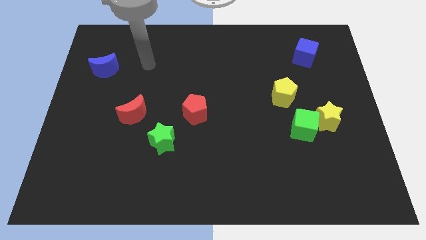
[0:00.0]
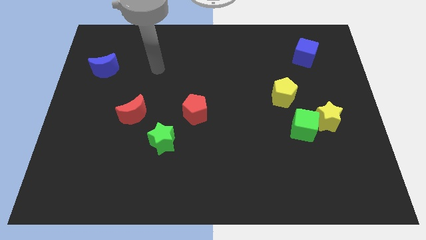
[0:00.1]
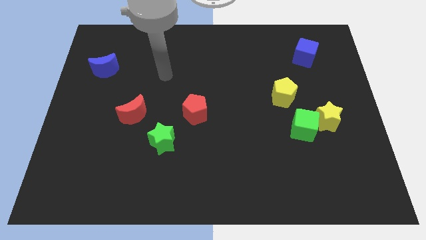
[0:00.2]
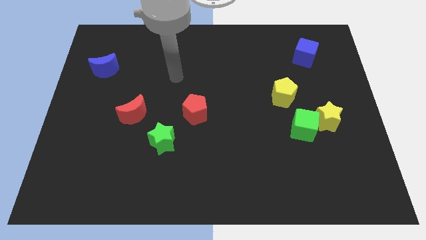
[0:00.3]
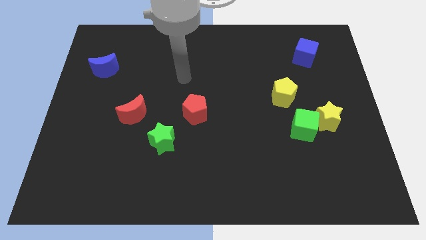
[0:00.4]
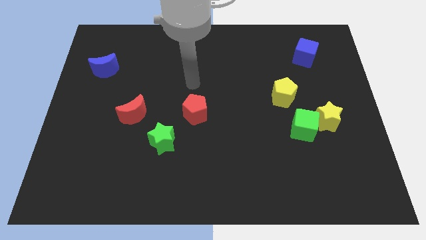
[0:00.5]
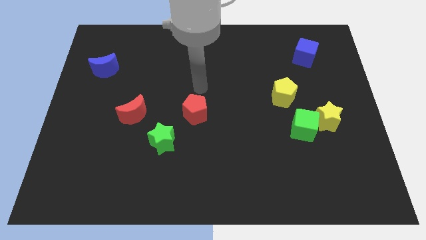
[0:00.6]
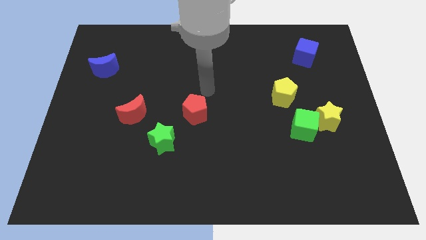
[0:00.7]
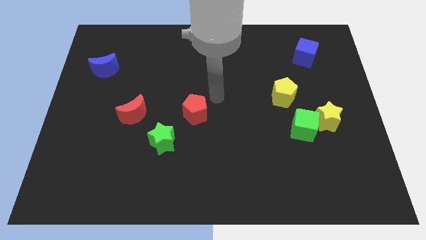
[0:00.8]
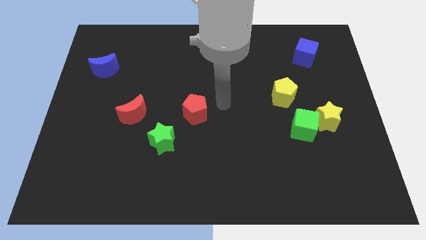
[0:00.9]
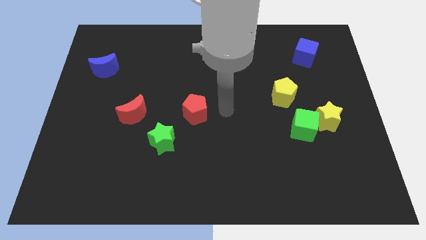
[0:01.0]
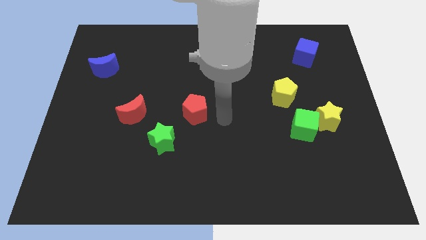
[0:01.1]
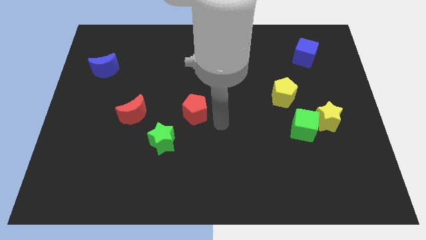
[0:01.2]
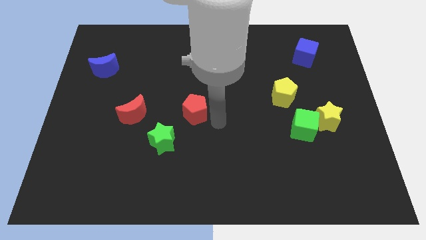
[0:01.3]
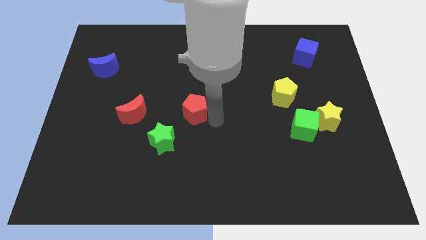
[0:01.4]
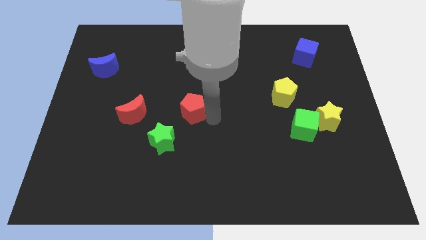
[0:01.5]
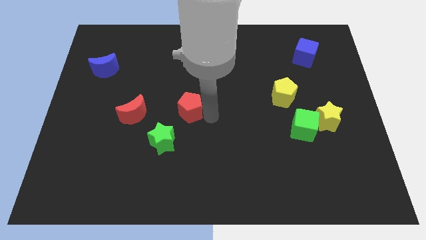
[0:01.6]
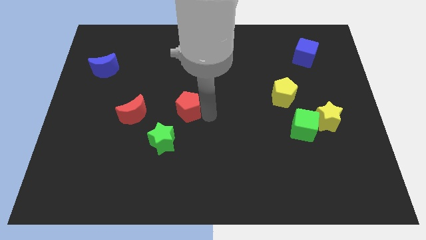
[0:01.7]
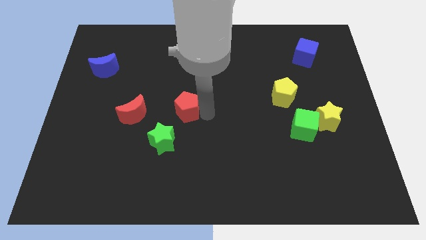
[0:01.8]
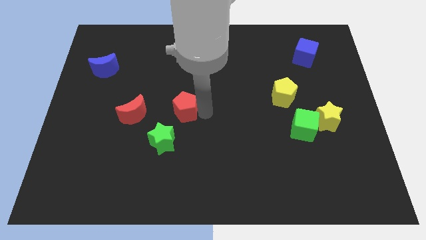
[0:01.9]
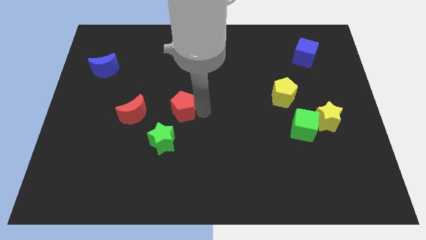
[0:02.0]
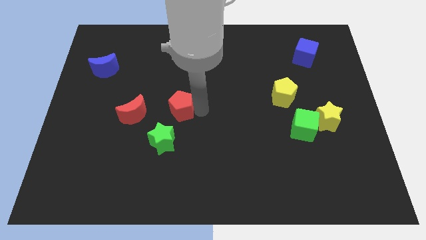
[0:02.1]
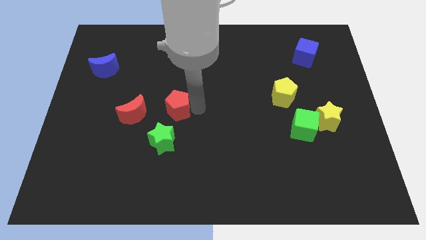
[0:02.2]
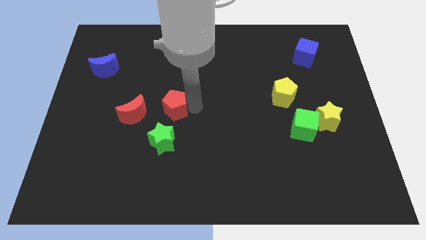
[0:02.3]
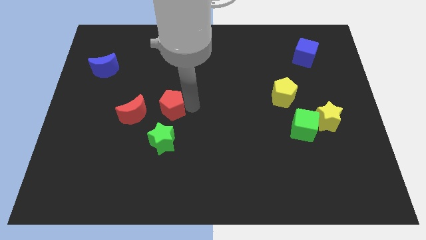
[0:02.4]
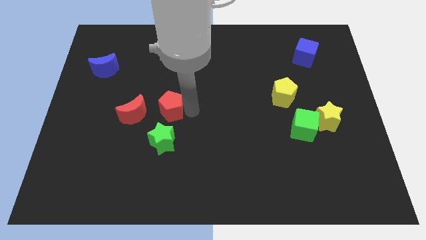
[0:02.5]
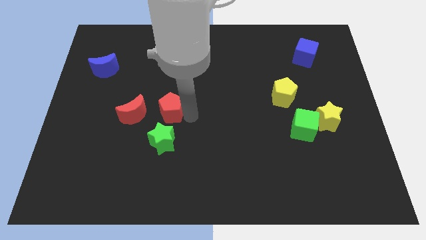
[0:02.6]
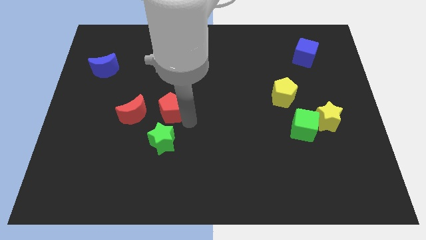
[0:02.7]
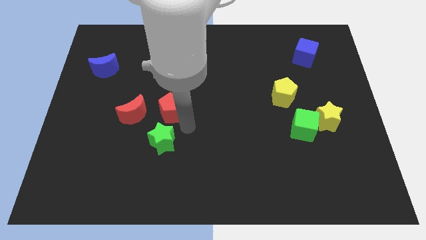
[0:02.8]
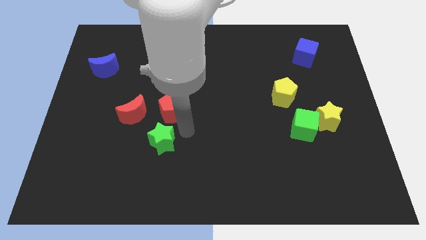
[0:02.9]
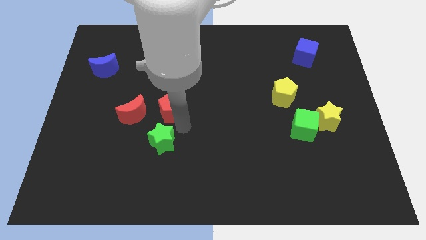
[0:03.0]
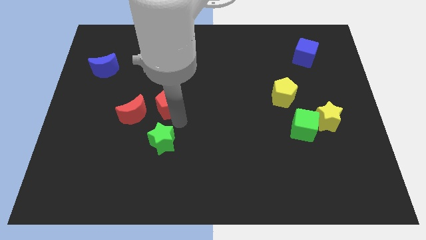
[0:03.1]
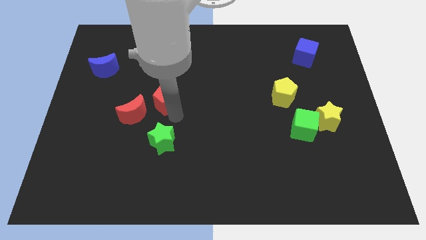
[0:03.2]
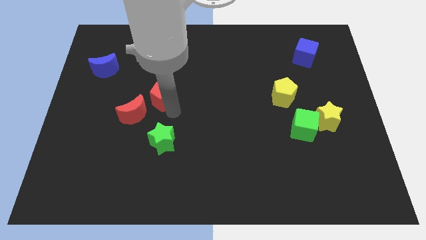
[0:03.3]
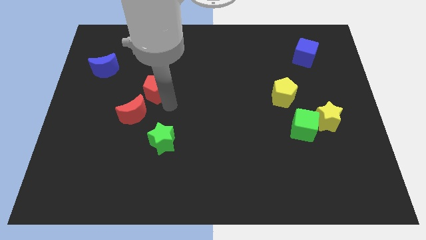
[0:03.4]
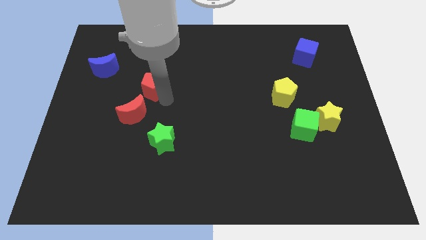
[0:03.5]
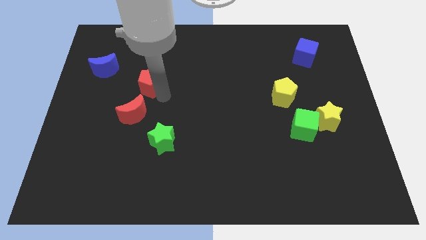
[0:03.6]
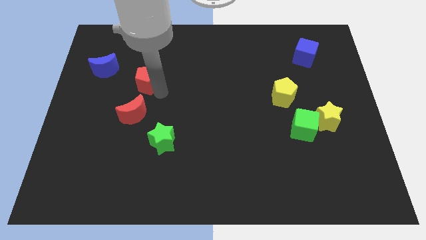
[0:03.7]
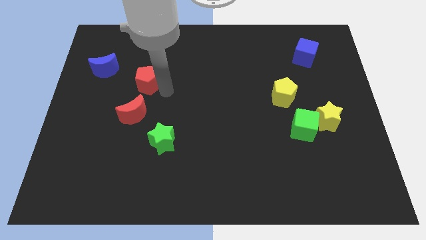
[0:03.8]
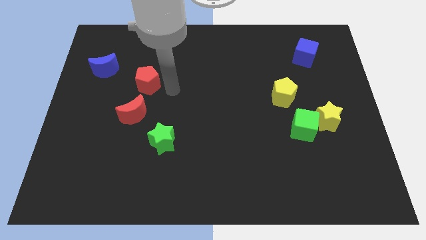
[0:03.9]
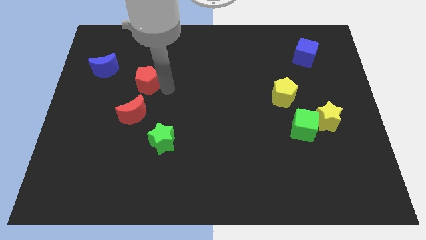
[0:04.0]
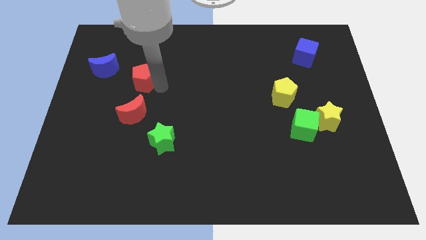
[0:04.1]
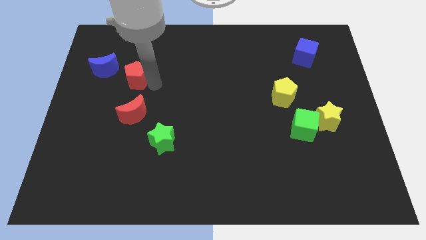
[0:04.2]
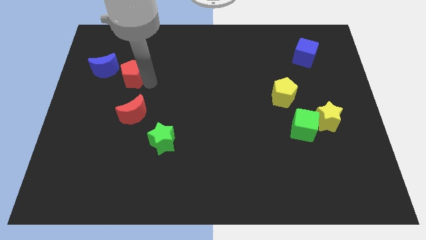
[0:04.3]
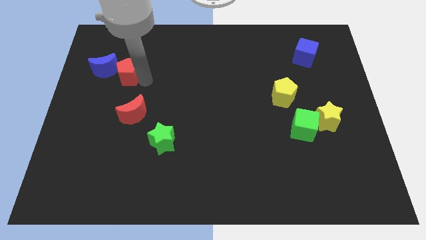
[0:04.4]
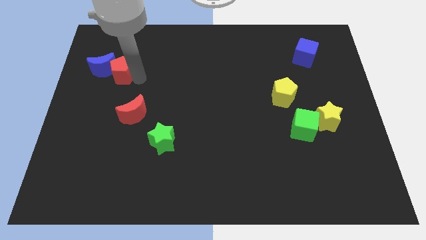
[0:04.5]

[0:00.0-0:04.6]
slide the red pentagon to the blue moon

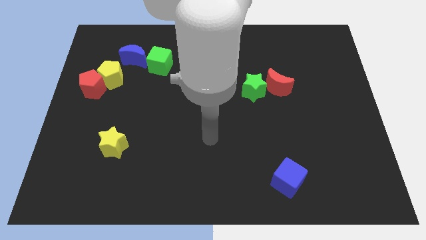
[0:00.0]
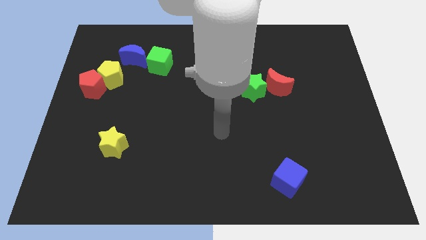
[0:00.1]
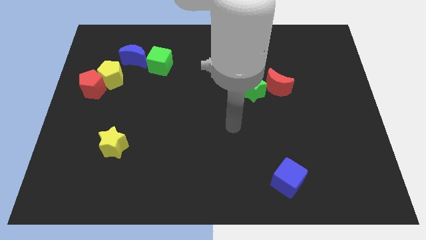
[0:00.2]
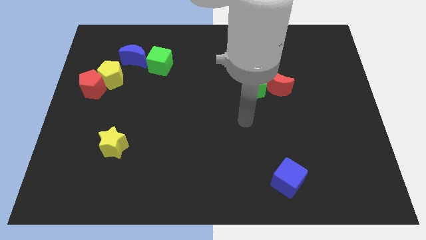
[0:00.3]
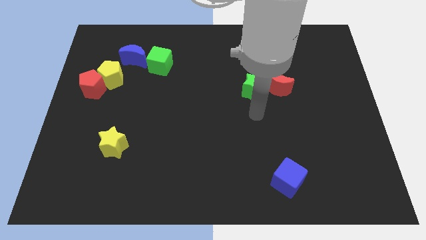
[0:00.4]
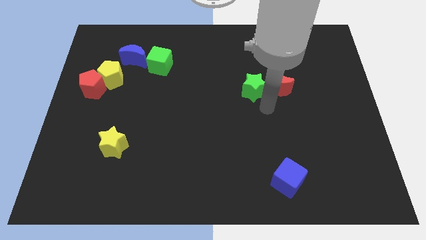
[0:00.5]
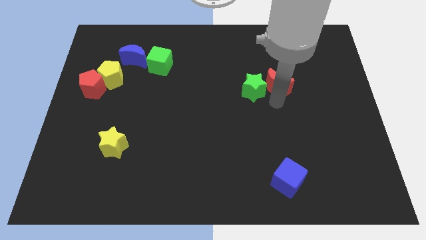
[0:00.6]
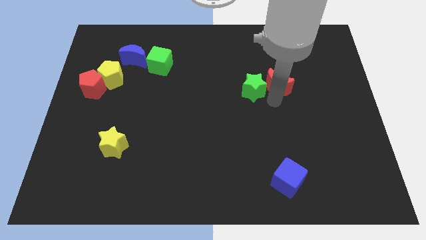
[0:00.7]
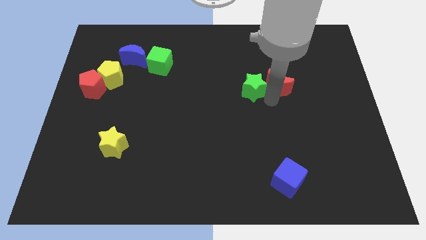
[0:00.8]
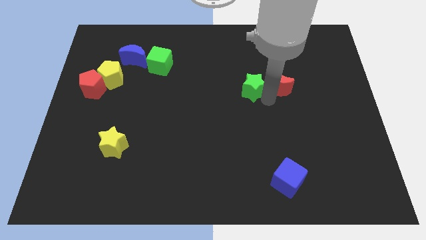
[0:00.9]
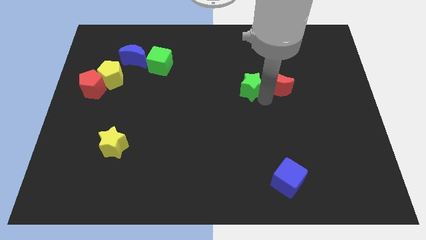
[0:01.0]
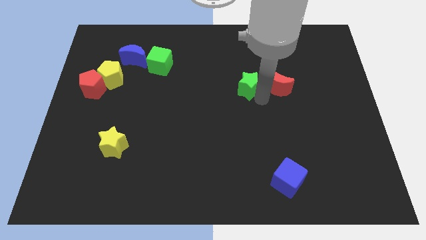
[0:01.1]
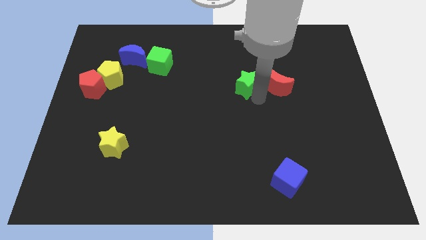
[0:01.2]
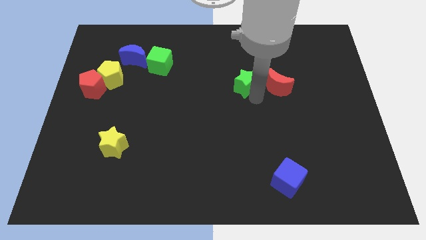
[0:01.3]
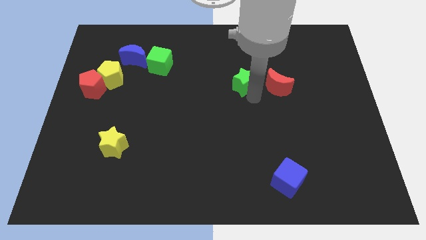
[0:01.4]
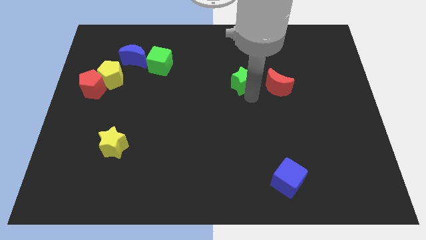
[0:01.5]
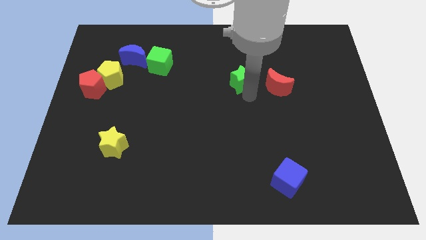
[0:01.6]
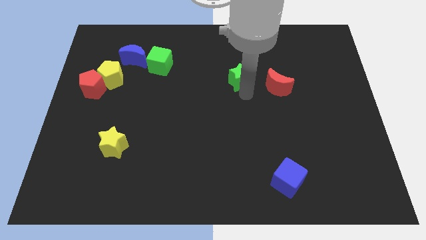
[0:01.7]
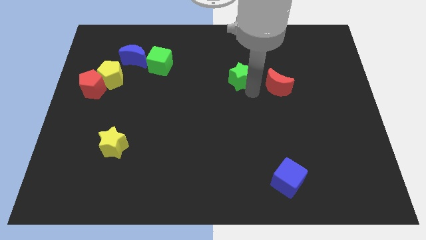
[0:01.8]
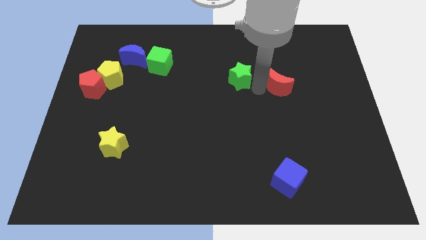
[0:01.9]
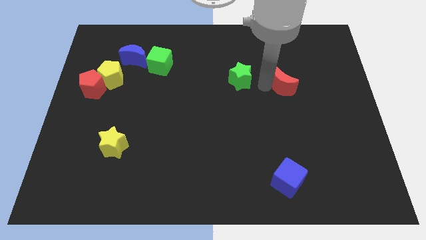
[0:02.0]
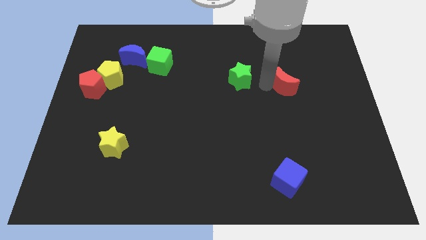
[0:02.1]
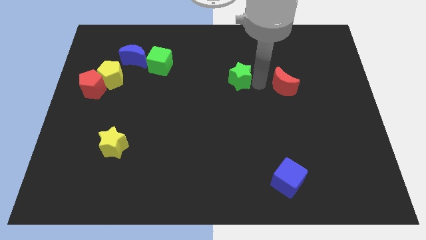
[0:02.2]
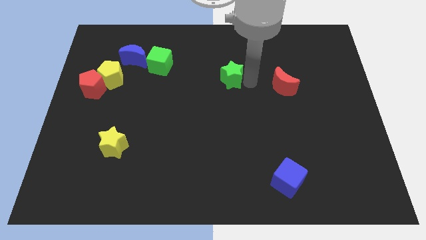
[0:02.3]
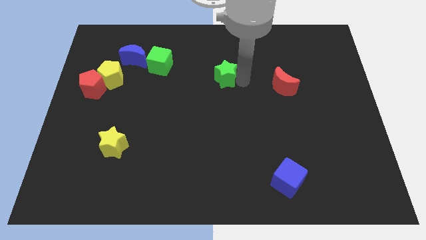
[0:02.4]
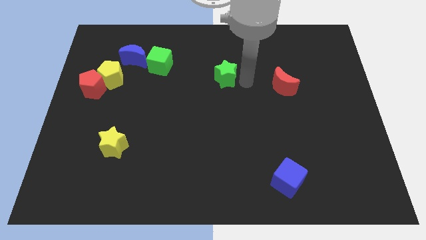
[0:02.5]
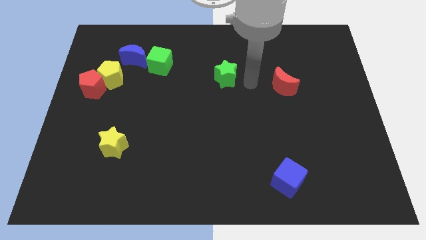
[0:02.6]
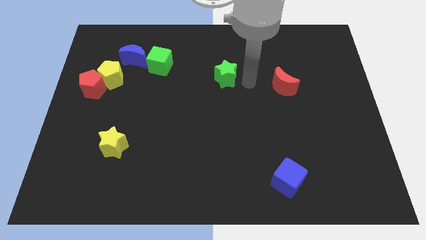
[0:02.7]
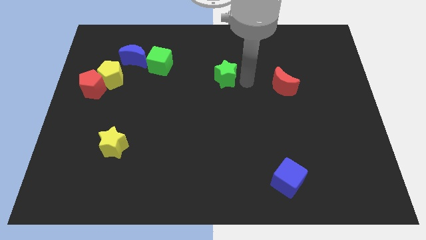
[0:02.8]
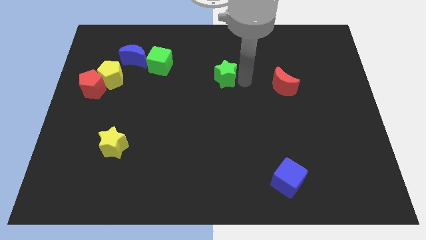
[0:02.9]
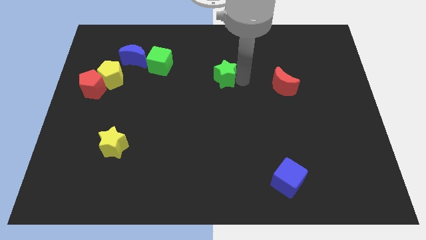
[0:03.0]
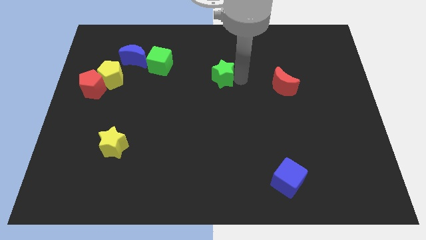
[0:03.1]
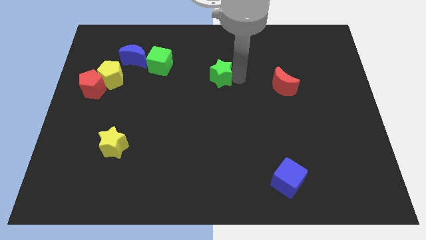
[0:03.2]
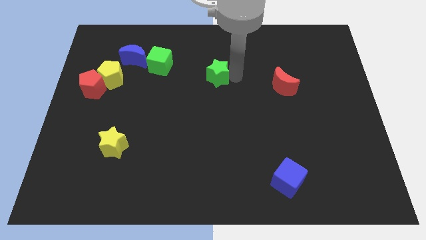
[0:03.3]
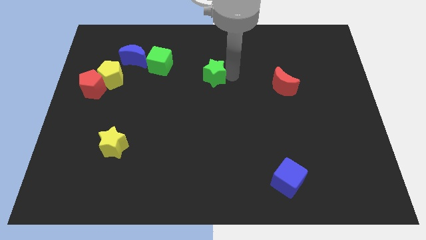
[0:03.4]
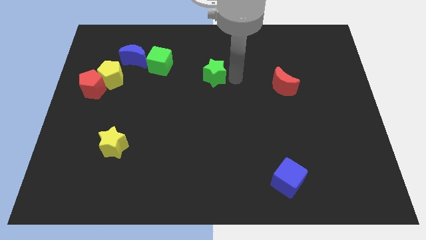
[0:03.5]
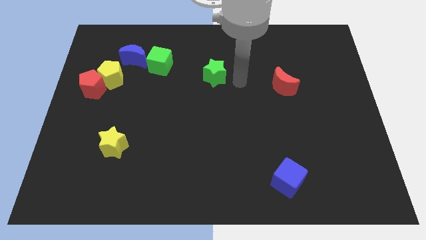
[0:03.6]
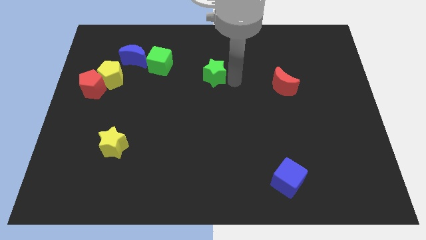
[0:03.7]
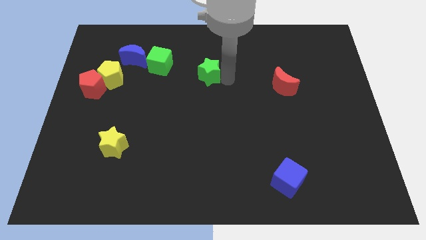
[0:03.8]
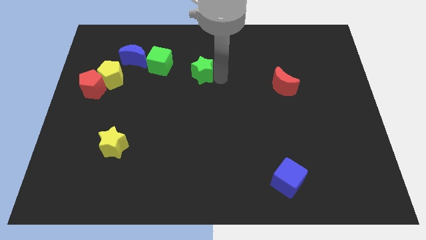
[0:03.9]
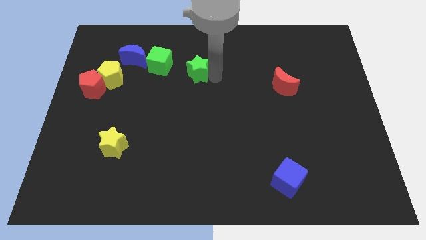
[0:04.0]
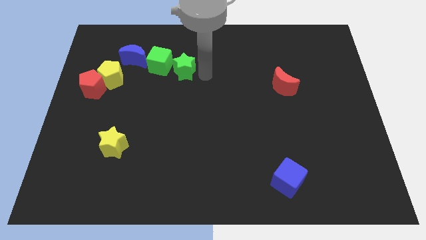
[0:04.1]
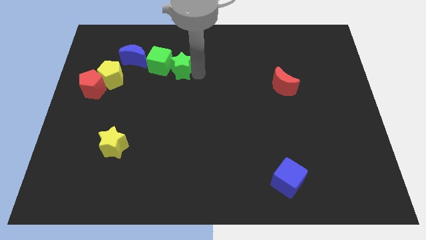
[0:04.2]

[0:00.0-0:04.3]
move the green star towards the green cube
